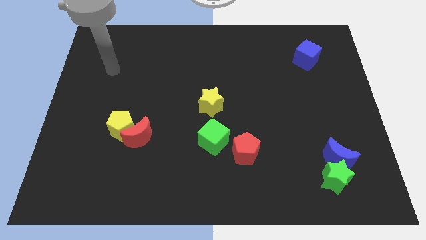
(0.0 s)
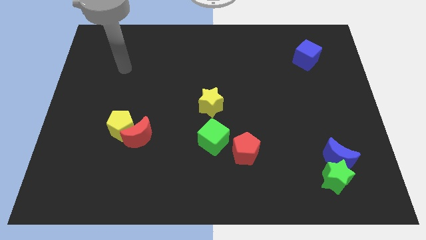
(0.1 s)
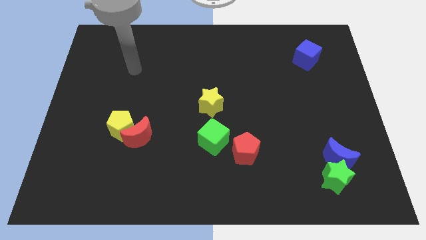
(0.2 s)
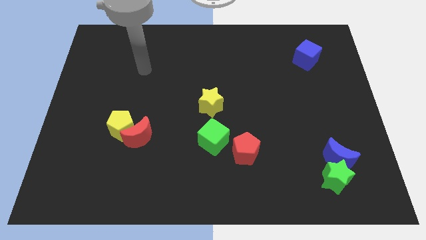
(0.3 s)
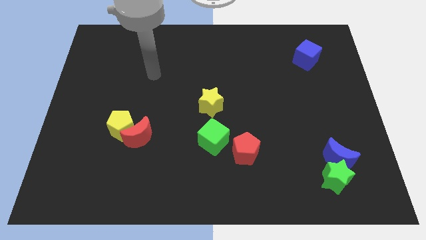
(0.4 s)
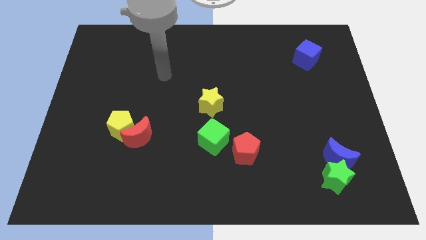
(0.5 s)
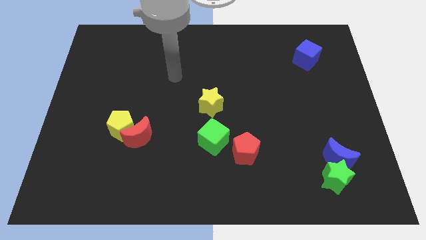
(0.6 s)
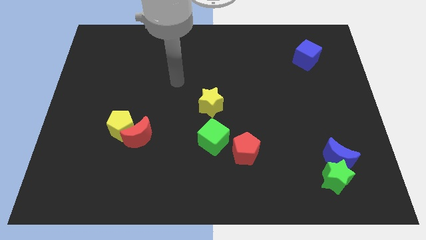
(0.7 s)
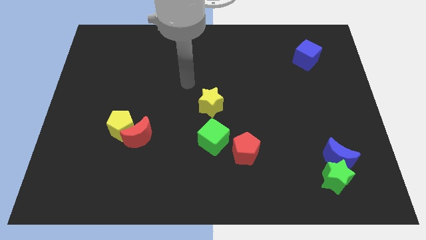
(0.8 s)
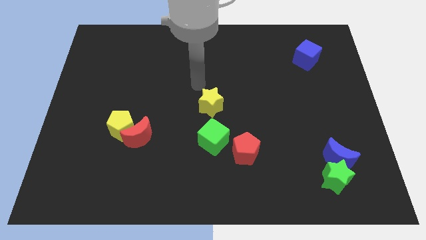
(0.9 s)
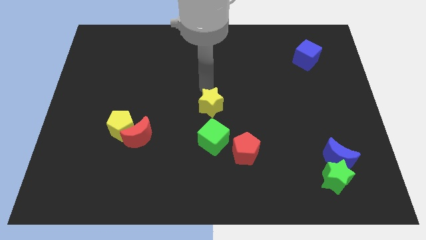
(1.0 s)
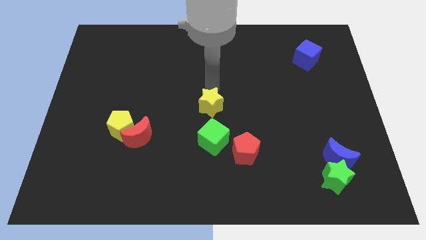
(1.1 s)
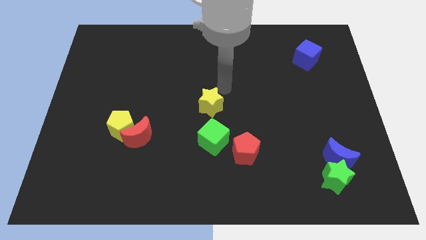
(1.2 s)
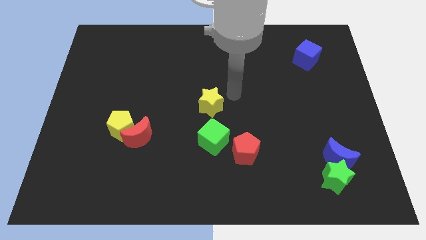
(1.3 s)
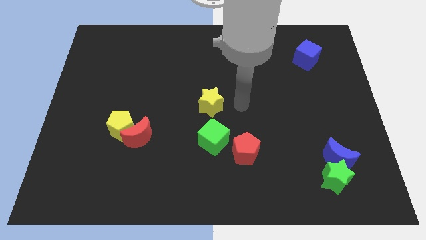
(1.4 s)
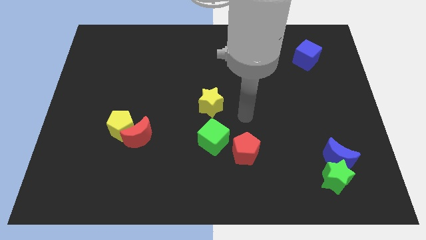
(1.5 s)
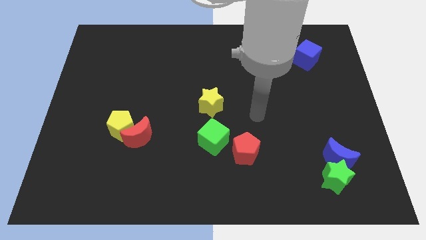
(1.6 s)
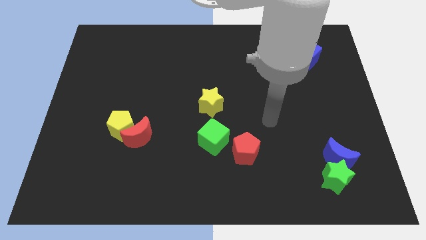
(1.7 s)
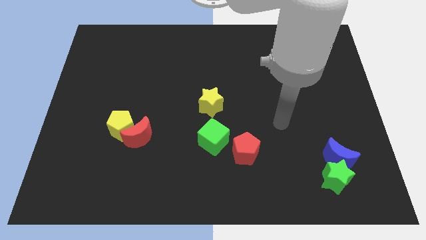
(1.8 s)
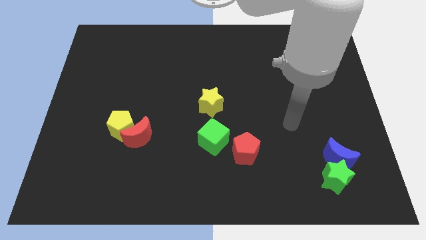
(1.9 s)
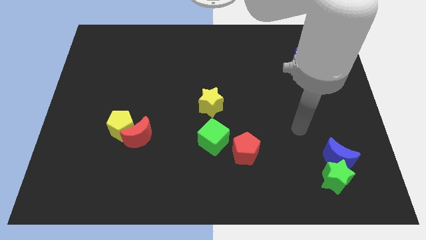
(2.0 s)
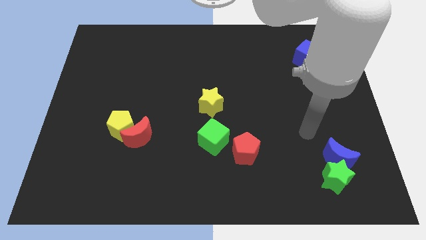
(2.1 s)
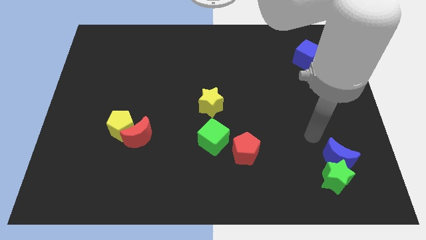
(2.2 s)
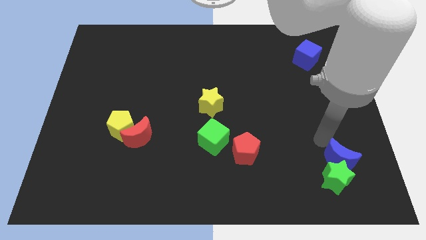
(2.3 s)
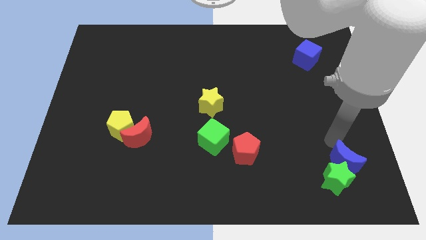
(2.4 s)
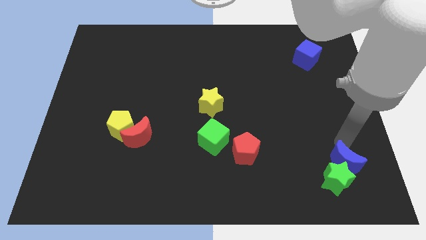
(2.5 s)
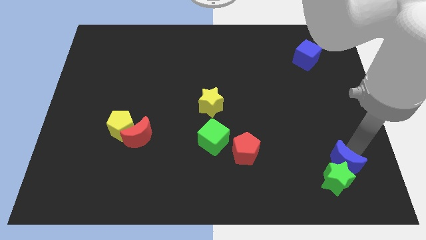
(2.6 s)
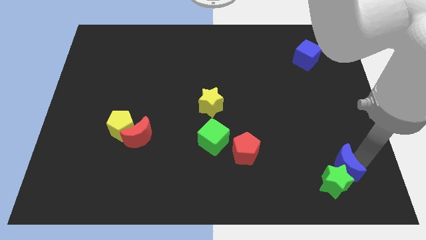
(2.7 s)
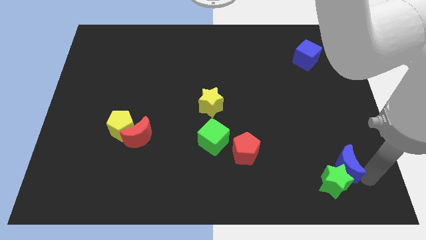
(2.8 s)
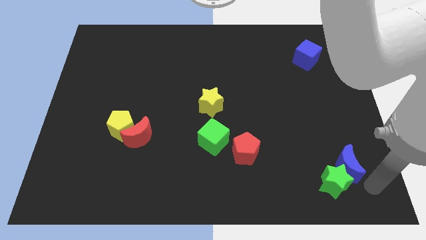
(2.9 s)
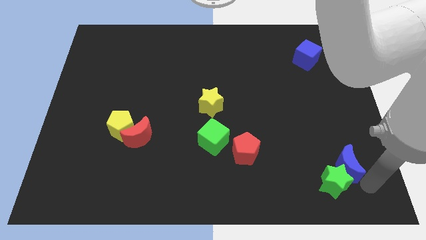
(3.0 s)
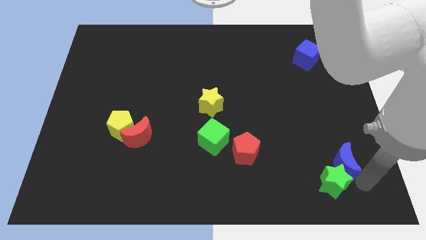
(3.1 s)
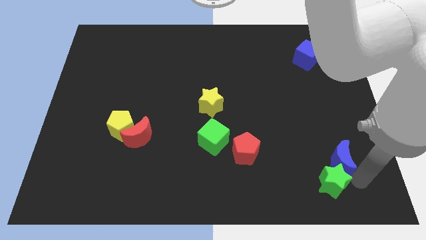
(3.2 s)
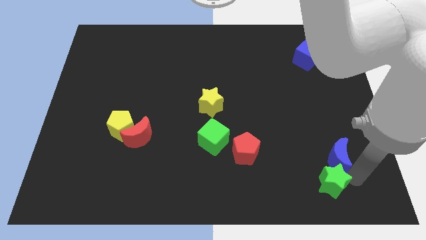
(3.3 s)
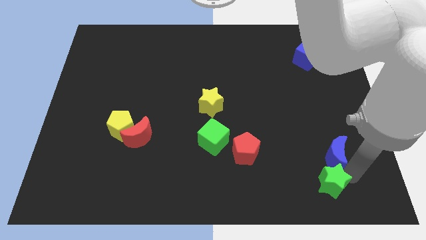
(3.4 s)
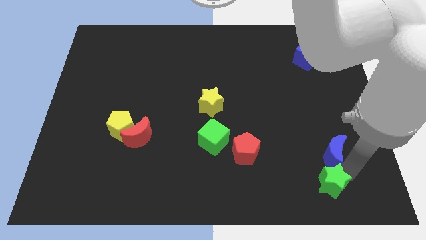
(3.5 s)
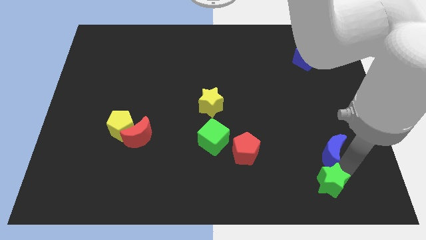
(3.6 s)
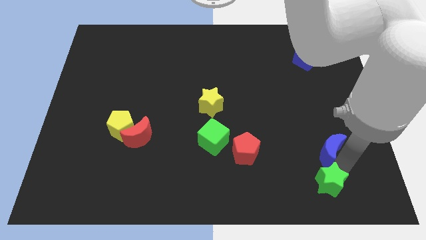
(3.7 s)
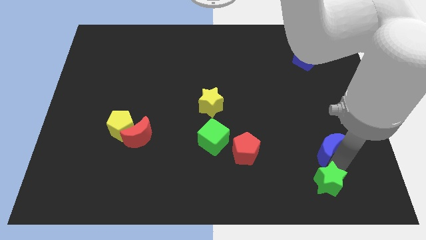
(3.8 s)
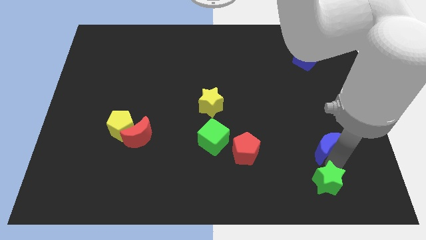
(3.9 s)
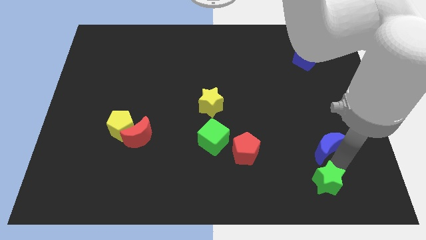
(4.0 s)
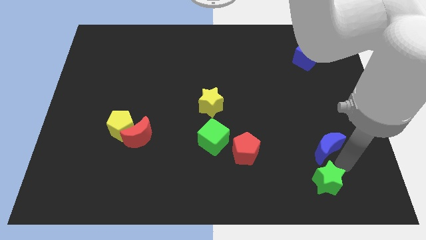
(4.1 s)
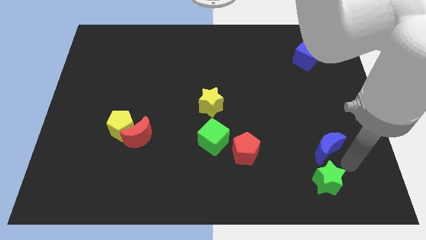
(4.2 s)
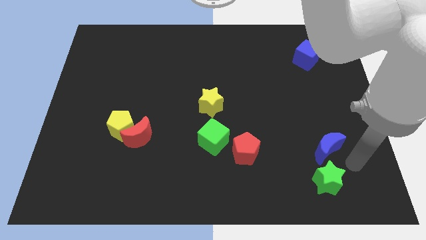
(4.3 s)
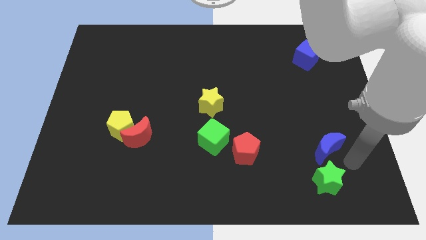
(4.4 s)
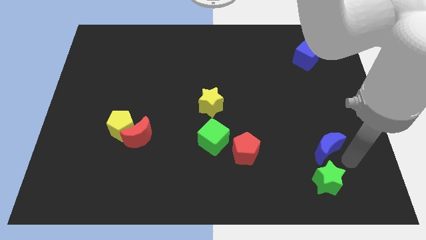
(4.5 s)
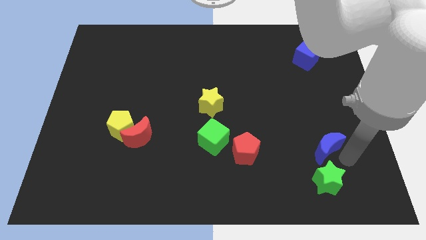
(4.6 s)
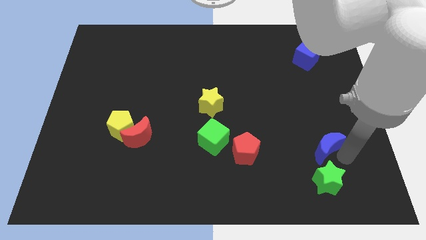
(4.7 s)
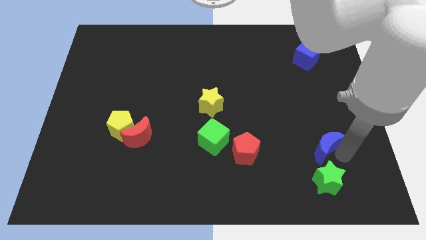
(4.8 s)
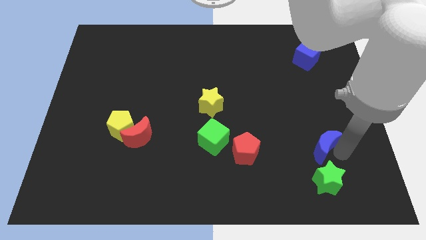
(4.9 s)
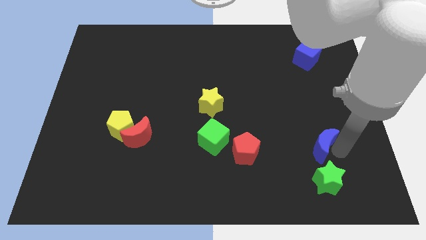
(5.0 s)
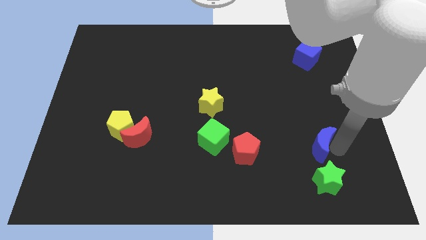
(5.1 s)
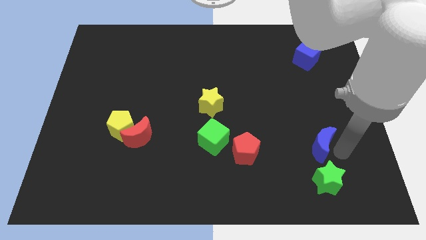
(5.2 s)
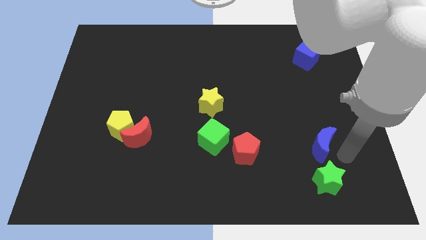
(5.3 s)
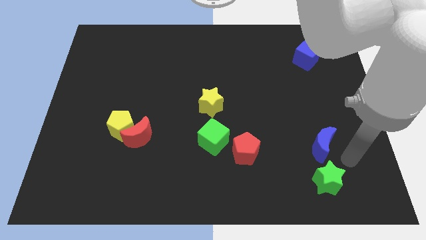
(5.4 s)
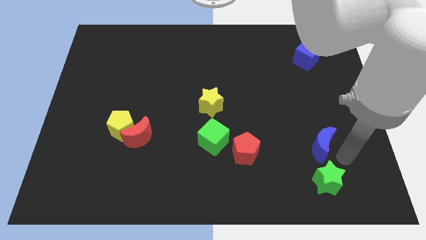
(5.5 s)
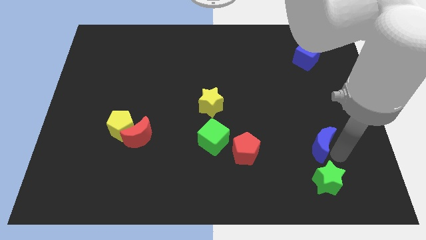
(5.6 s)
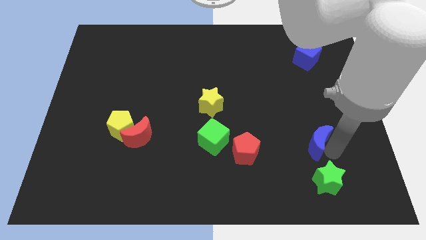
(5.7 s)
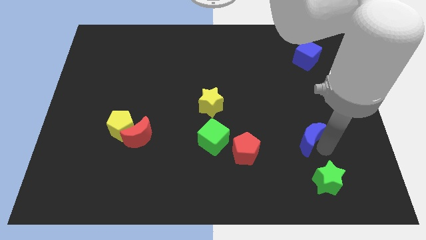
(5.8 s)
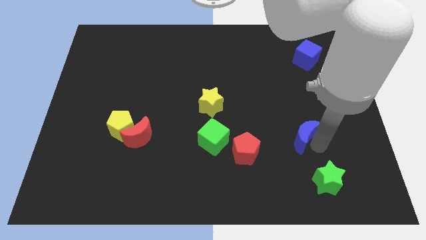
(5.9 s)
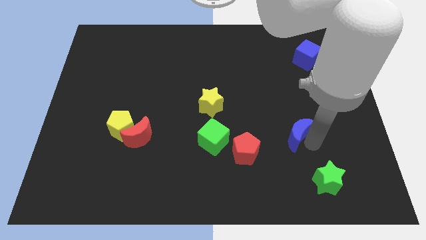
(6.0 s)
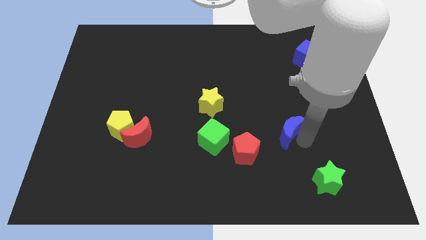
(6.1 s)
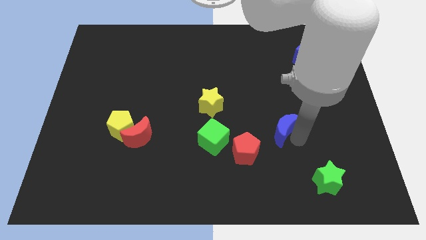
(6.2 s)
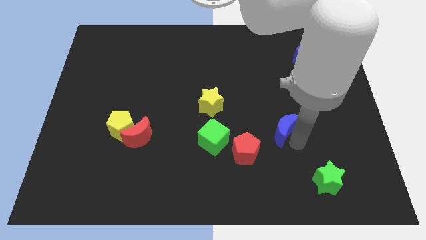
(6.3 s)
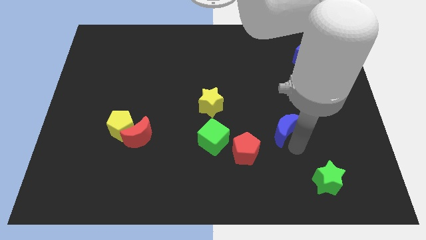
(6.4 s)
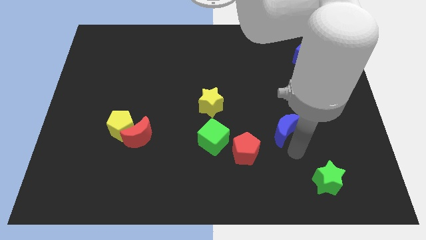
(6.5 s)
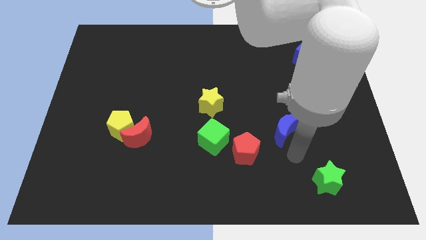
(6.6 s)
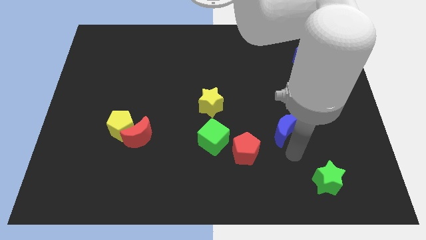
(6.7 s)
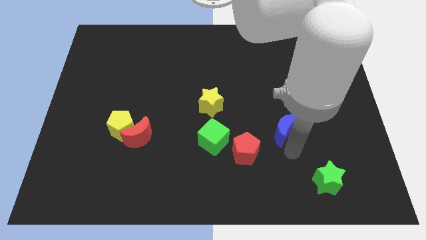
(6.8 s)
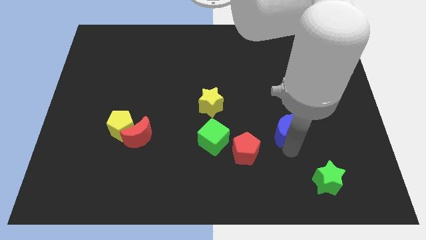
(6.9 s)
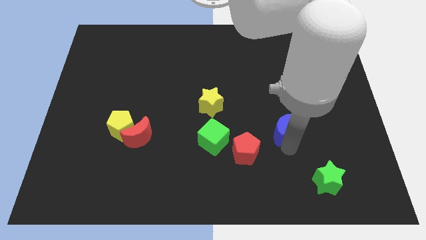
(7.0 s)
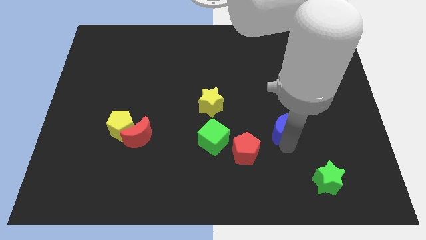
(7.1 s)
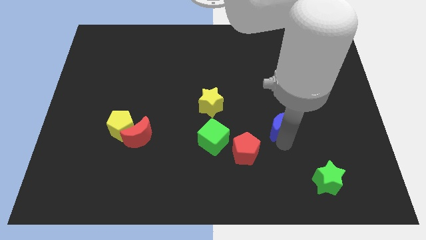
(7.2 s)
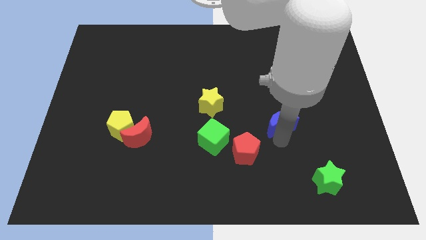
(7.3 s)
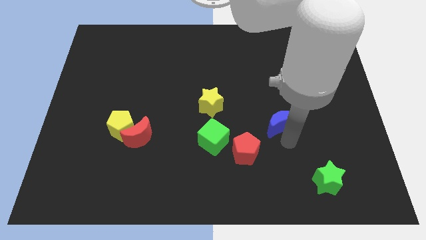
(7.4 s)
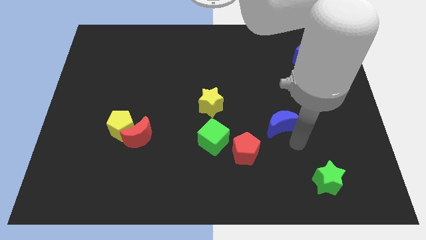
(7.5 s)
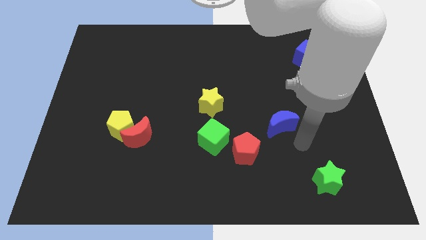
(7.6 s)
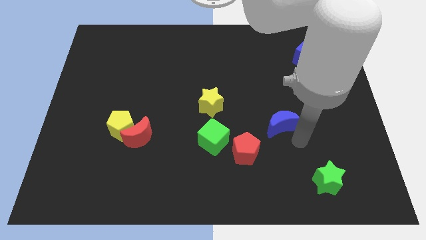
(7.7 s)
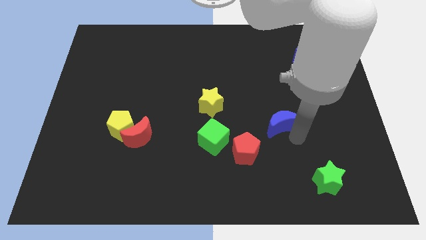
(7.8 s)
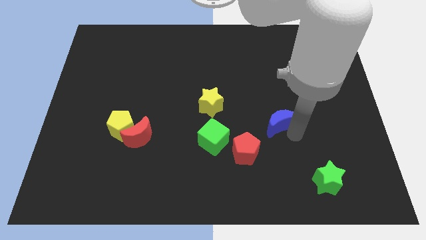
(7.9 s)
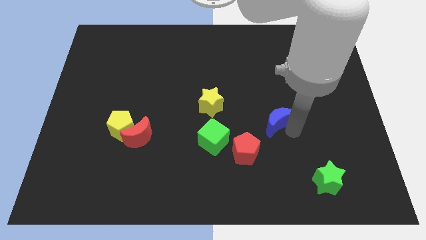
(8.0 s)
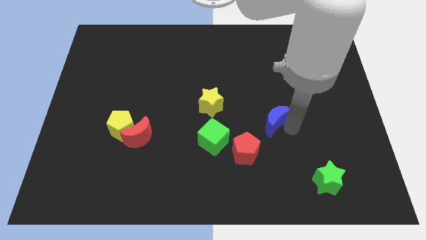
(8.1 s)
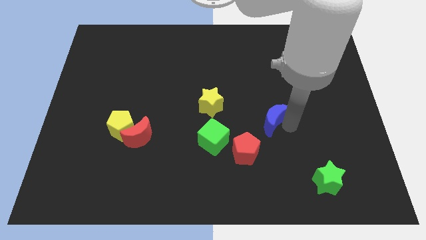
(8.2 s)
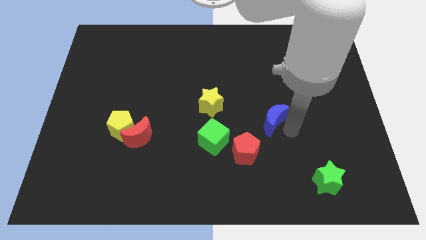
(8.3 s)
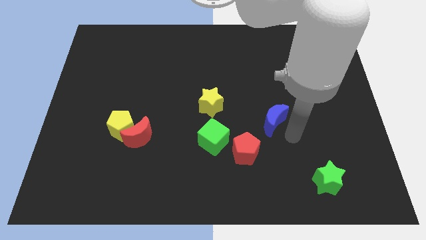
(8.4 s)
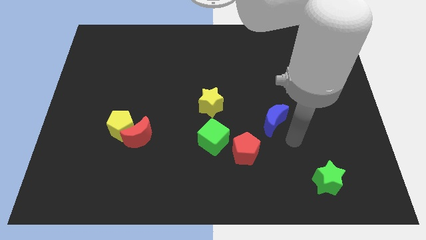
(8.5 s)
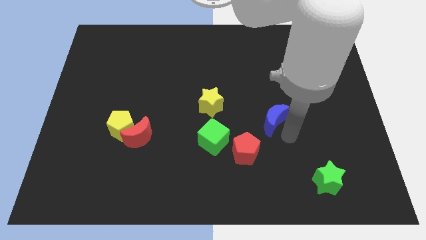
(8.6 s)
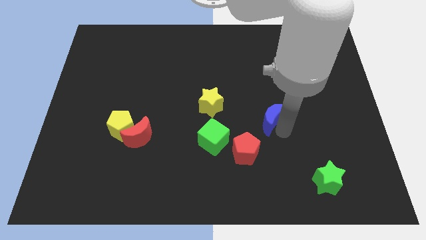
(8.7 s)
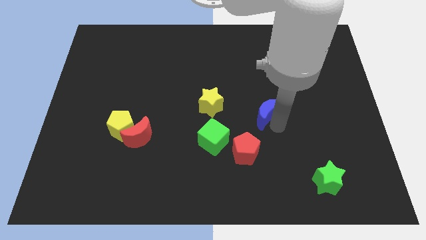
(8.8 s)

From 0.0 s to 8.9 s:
slide the blue moon to the right side of the yellow star
